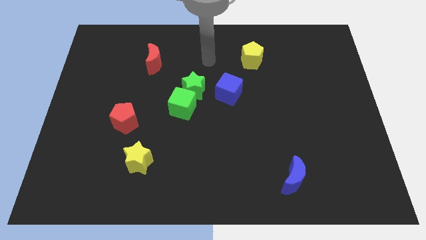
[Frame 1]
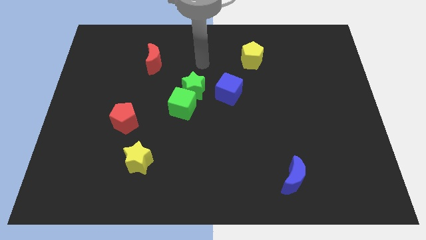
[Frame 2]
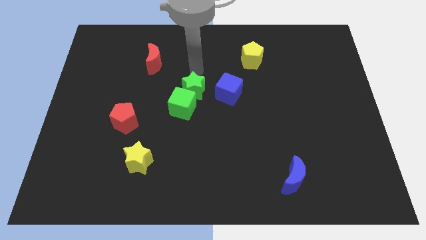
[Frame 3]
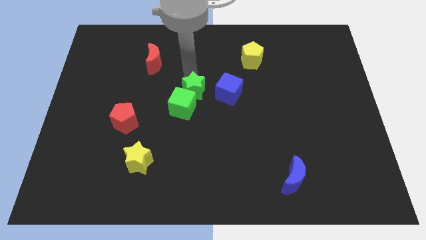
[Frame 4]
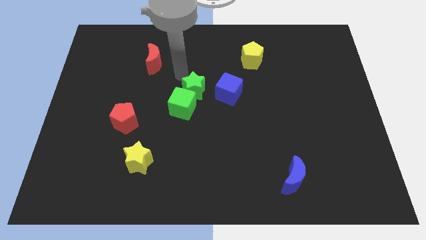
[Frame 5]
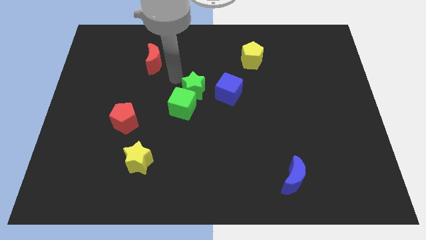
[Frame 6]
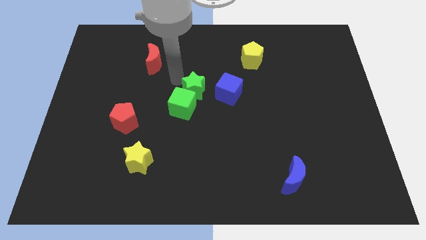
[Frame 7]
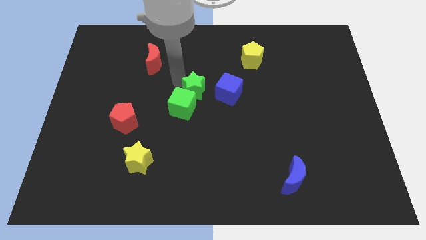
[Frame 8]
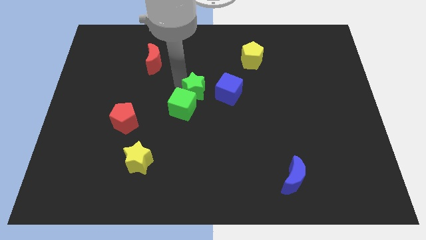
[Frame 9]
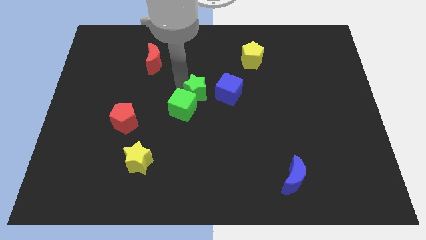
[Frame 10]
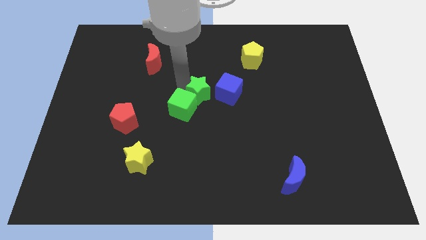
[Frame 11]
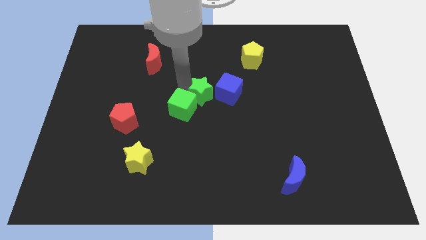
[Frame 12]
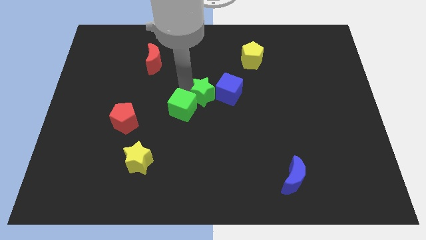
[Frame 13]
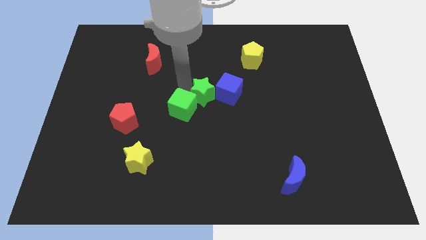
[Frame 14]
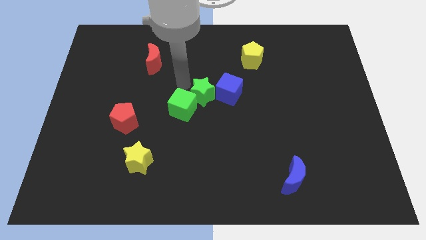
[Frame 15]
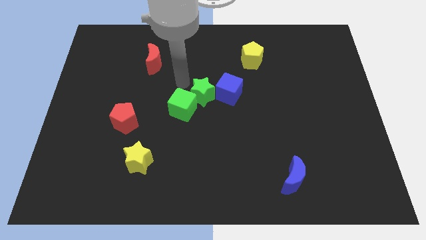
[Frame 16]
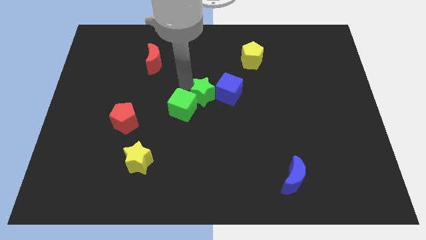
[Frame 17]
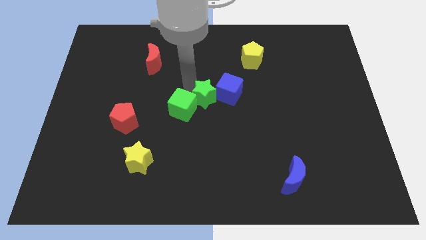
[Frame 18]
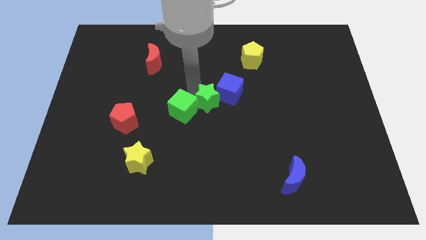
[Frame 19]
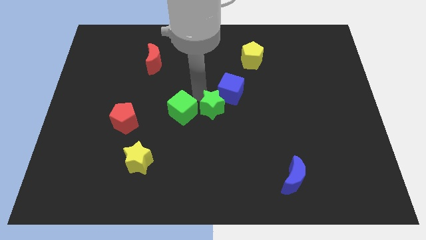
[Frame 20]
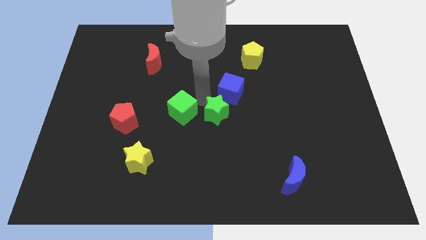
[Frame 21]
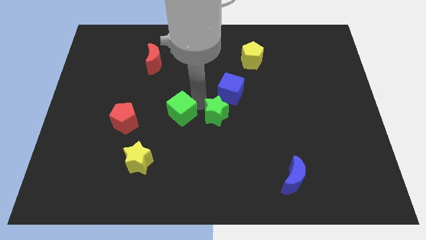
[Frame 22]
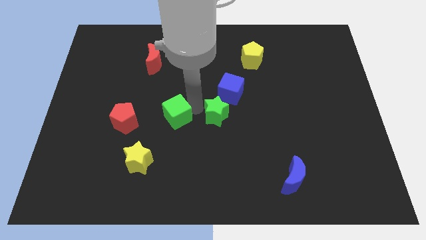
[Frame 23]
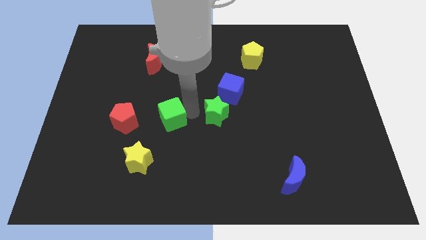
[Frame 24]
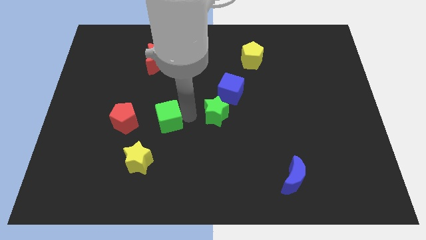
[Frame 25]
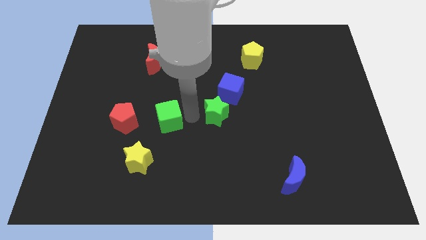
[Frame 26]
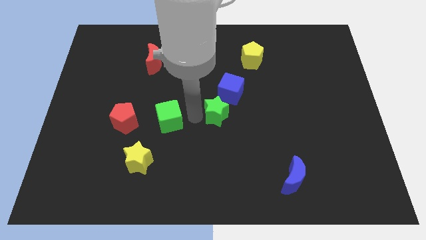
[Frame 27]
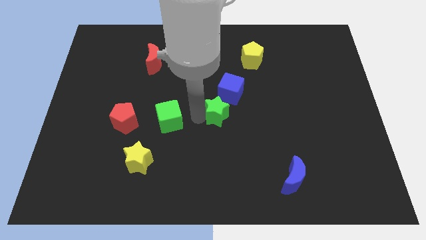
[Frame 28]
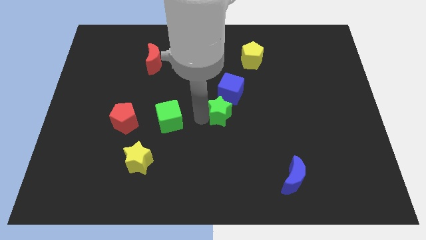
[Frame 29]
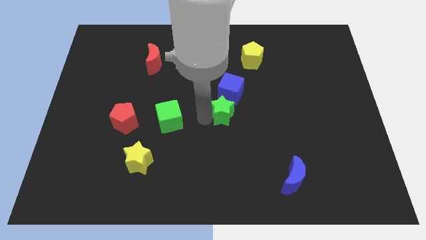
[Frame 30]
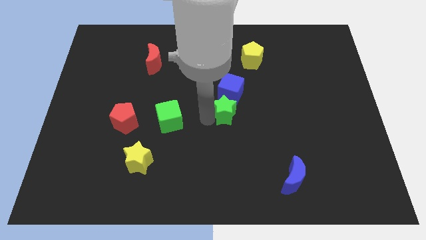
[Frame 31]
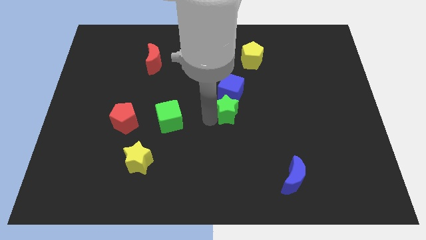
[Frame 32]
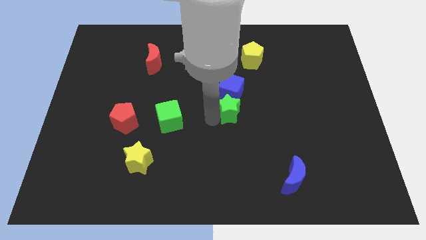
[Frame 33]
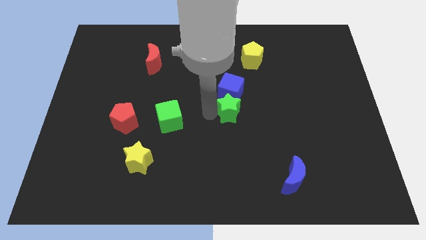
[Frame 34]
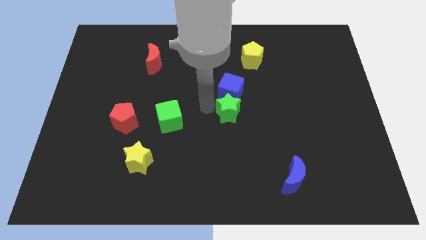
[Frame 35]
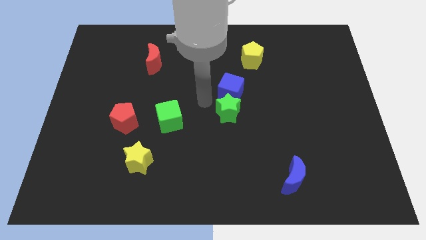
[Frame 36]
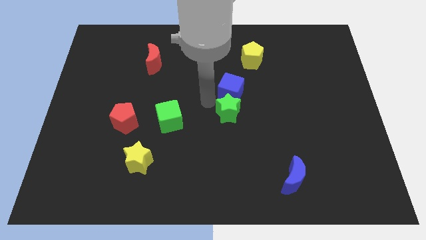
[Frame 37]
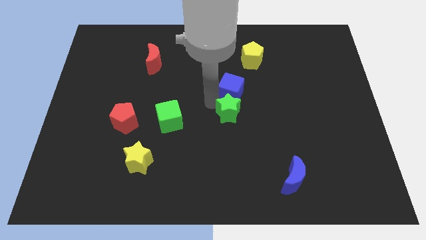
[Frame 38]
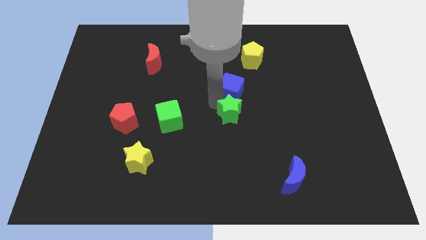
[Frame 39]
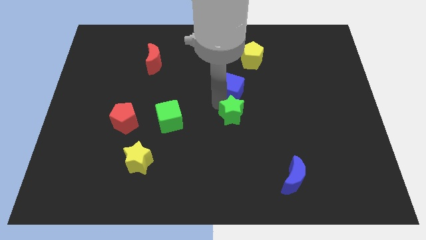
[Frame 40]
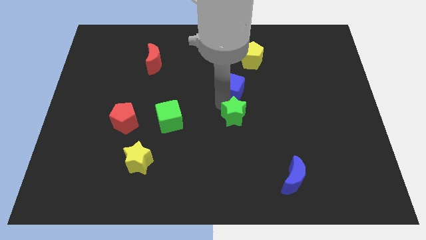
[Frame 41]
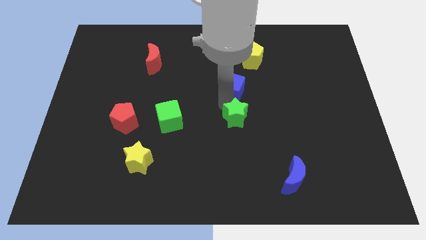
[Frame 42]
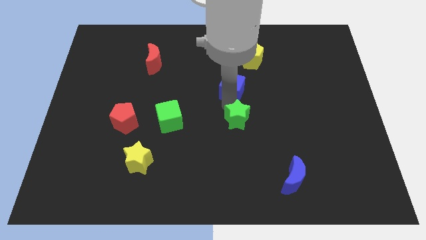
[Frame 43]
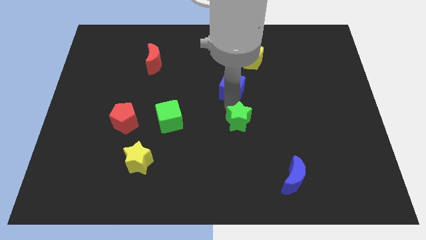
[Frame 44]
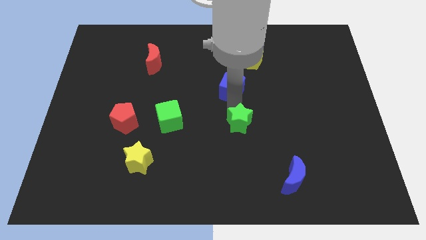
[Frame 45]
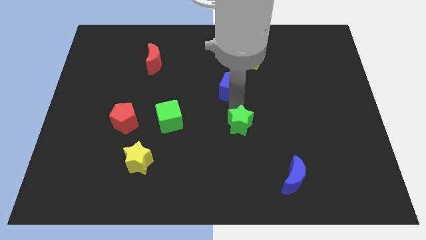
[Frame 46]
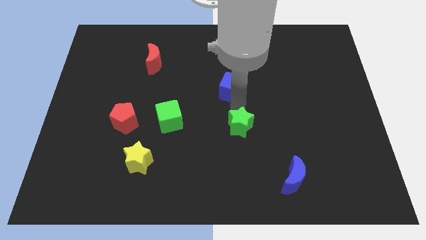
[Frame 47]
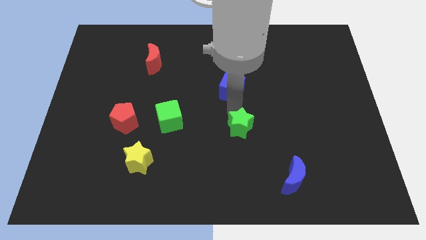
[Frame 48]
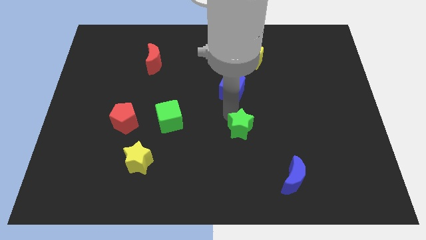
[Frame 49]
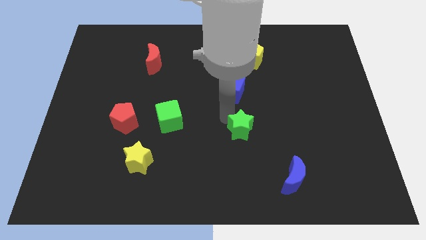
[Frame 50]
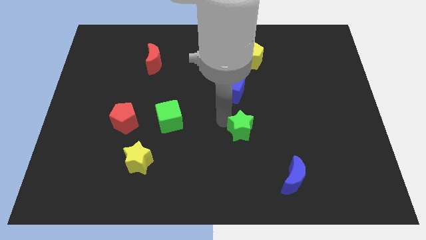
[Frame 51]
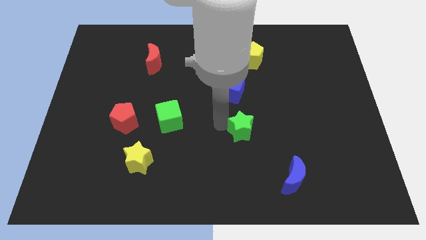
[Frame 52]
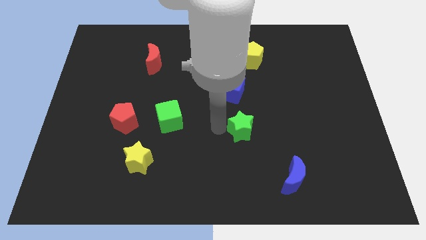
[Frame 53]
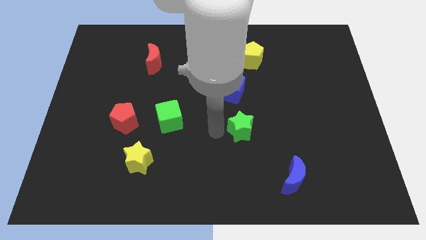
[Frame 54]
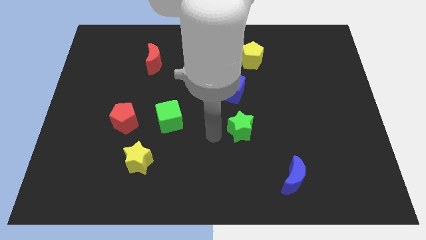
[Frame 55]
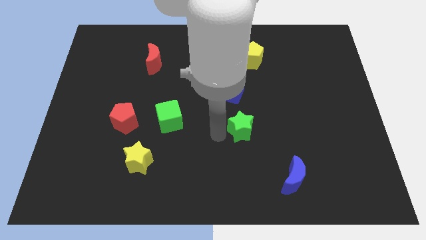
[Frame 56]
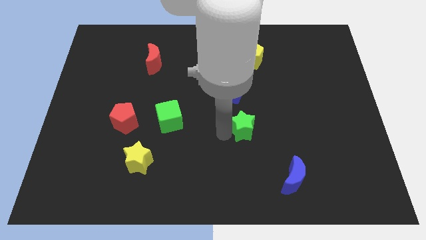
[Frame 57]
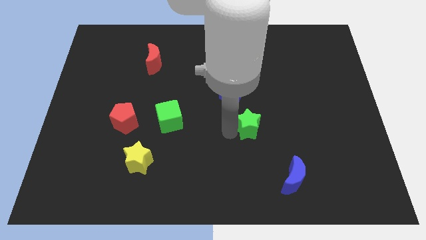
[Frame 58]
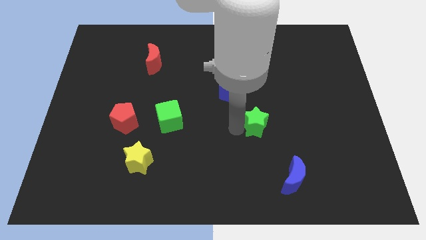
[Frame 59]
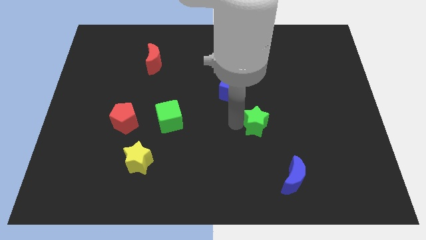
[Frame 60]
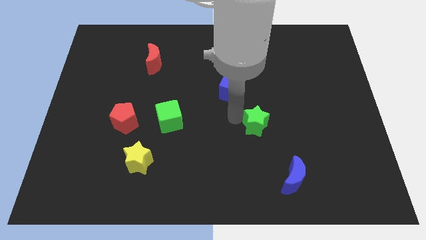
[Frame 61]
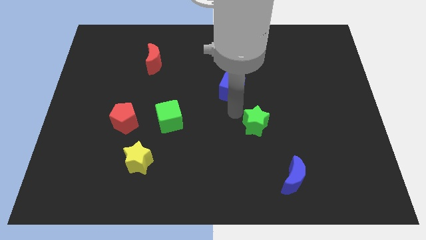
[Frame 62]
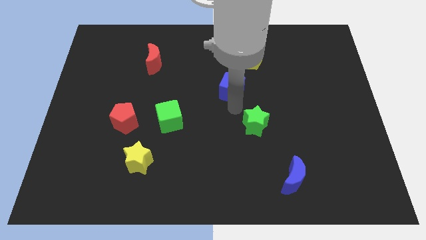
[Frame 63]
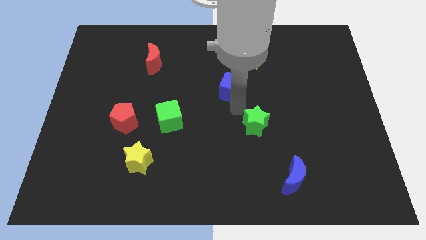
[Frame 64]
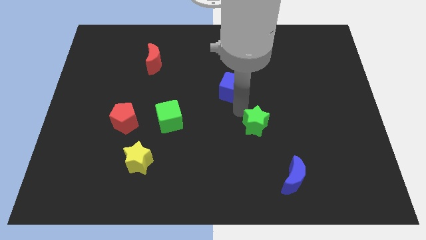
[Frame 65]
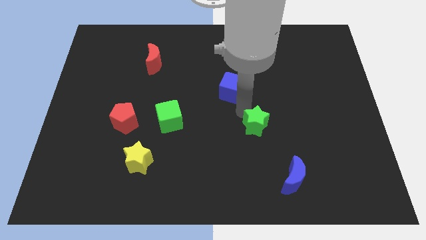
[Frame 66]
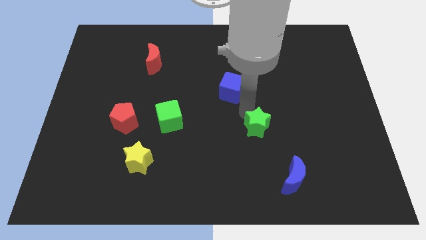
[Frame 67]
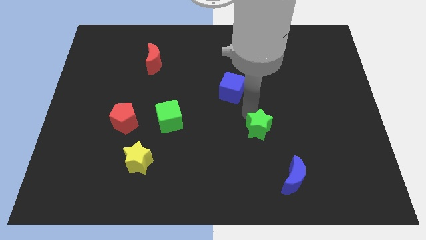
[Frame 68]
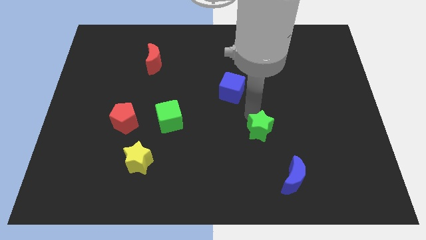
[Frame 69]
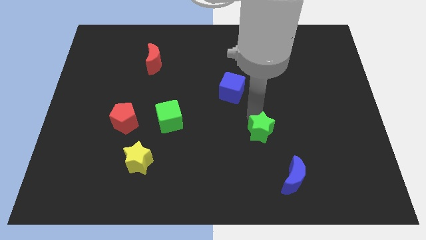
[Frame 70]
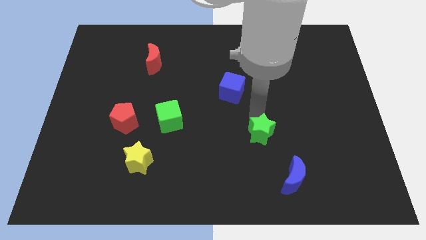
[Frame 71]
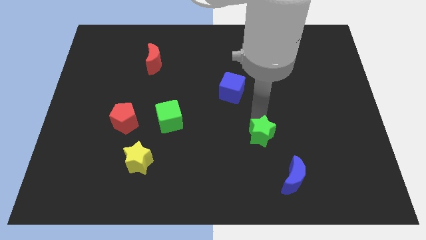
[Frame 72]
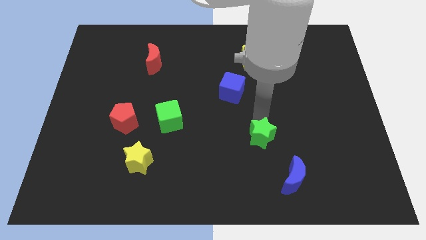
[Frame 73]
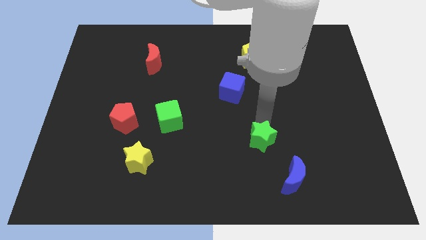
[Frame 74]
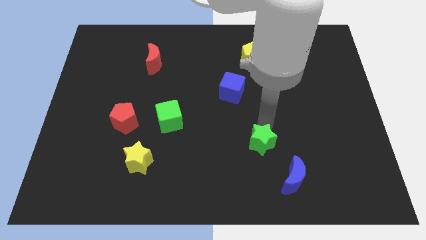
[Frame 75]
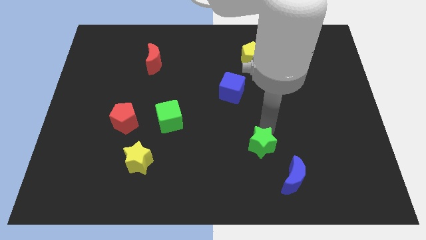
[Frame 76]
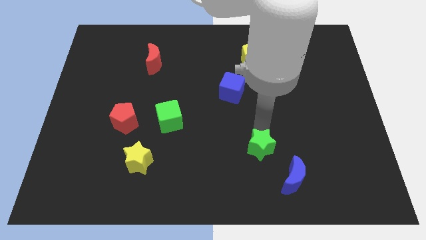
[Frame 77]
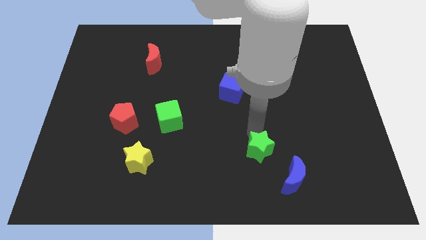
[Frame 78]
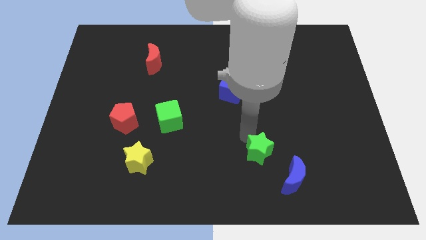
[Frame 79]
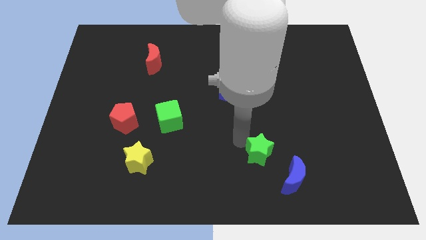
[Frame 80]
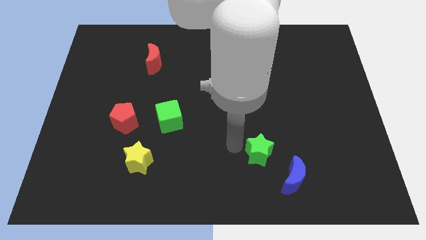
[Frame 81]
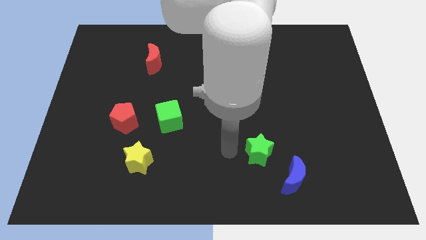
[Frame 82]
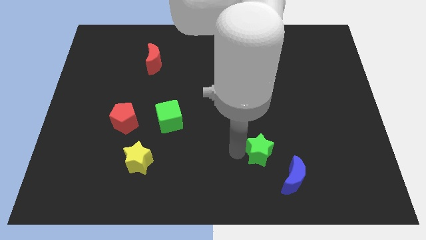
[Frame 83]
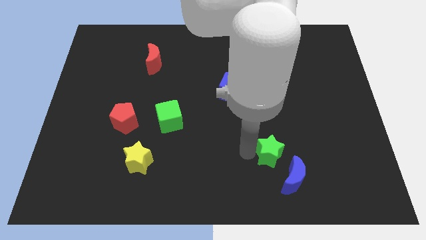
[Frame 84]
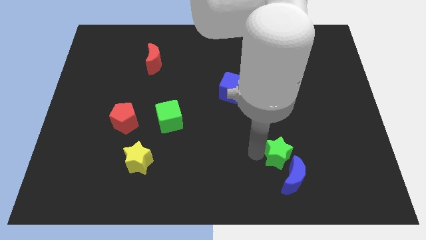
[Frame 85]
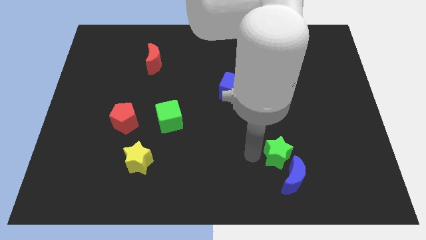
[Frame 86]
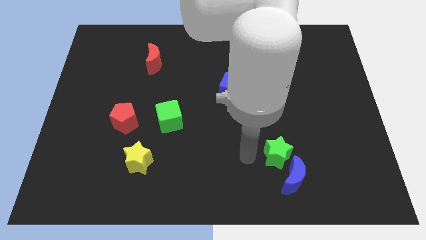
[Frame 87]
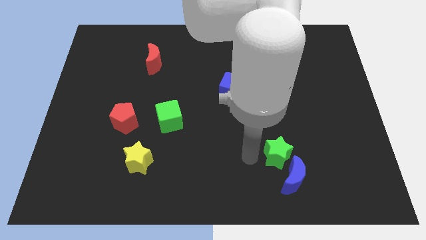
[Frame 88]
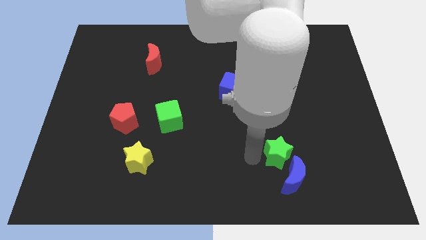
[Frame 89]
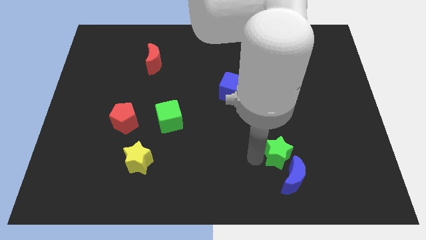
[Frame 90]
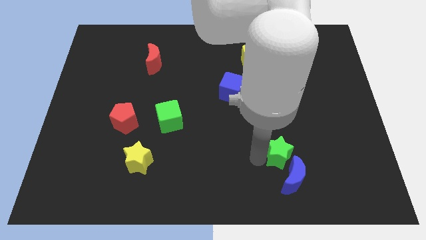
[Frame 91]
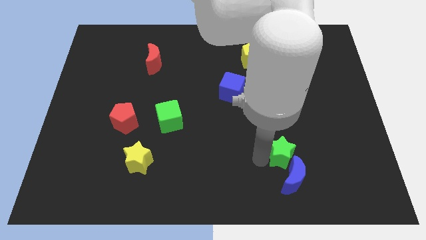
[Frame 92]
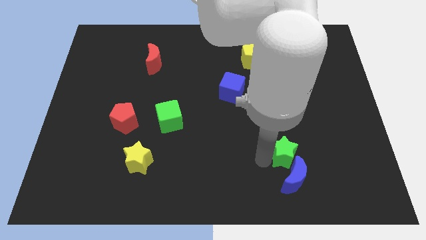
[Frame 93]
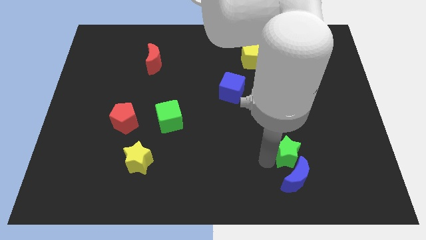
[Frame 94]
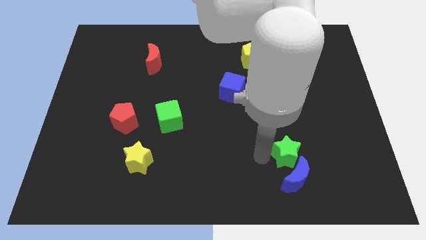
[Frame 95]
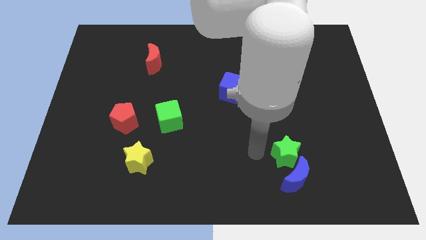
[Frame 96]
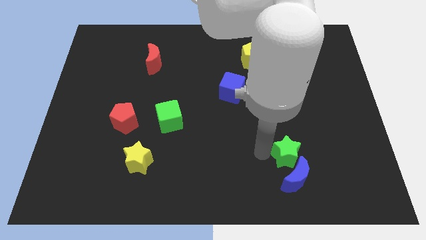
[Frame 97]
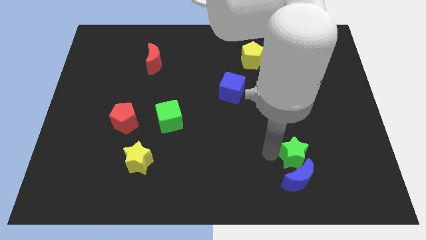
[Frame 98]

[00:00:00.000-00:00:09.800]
push the green star to the top right of the blue moon
